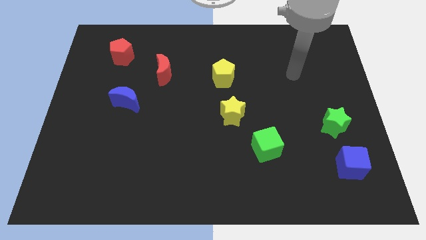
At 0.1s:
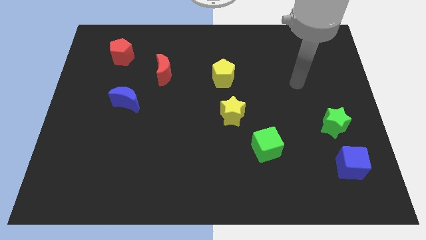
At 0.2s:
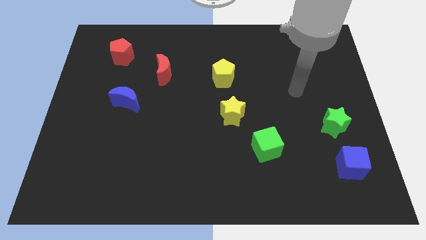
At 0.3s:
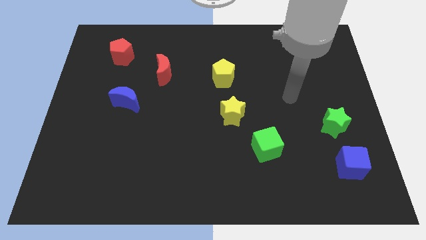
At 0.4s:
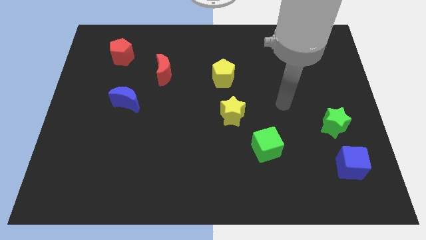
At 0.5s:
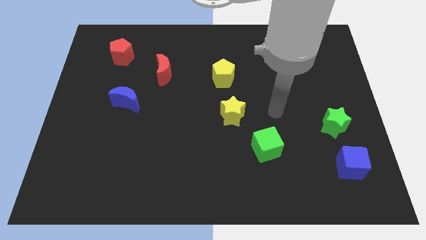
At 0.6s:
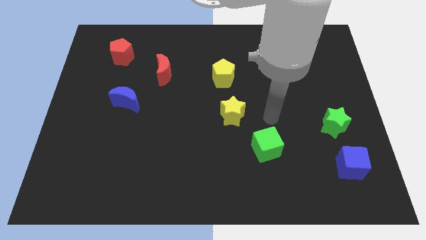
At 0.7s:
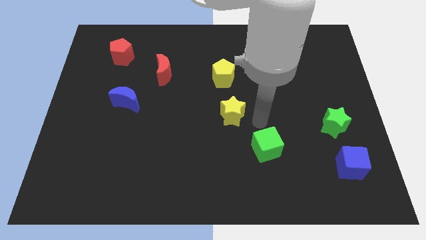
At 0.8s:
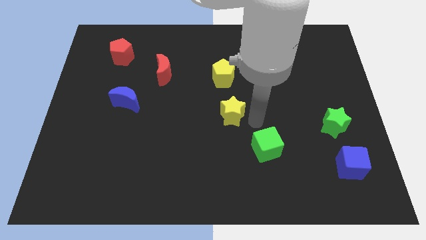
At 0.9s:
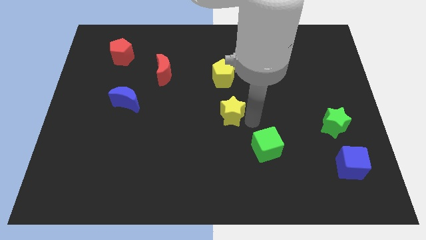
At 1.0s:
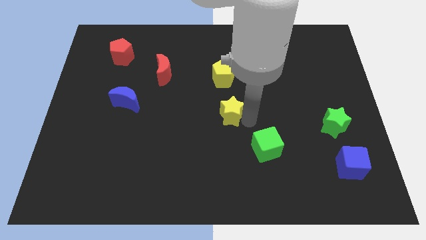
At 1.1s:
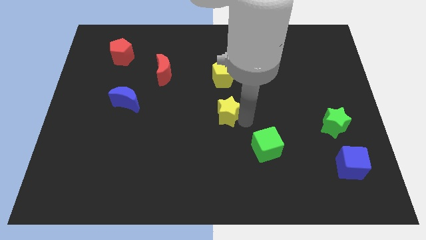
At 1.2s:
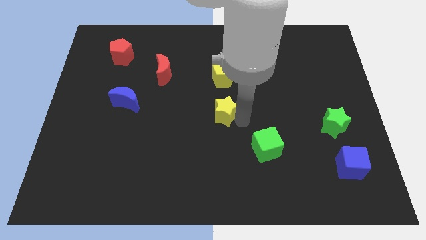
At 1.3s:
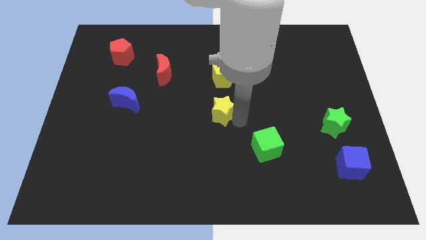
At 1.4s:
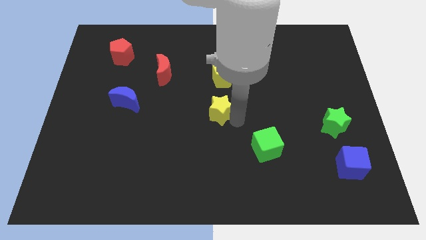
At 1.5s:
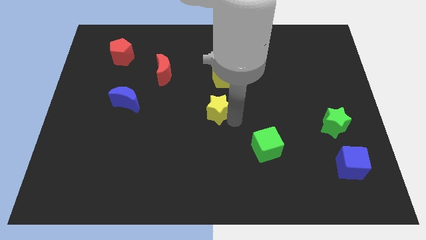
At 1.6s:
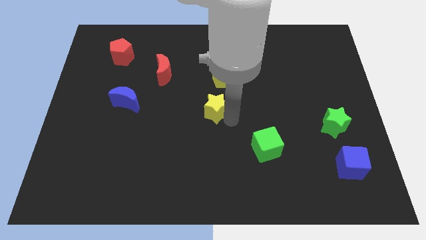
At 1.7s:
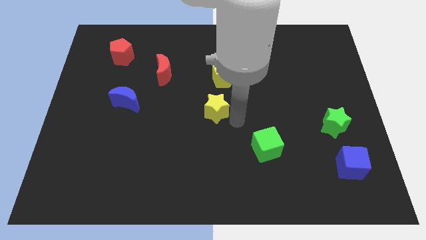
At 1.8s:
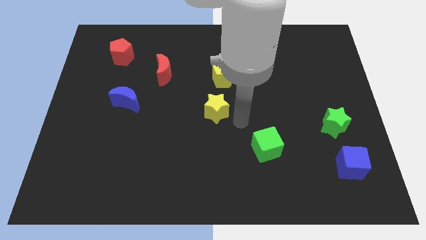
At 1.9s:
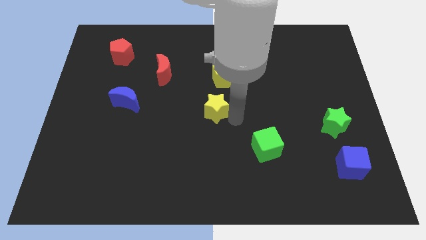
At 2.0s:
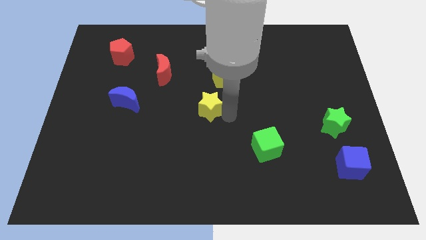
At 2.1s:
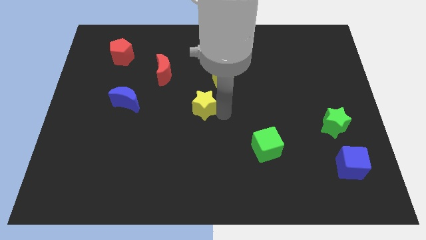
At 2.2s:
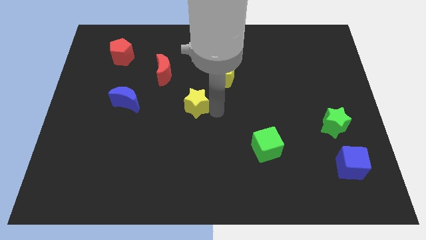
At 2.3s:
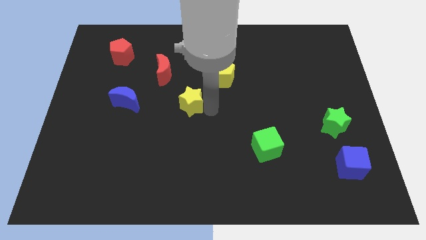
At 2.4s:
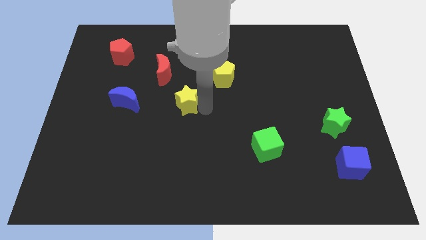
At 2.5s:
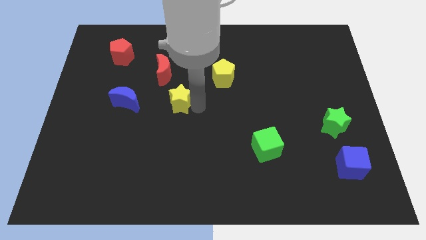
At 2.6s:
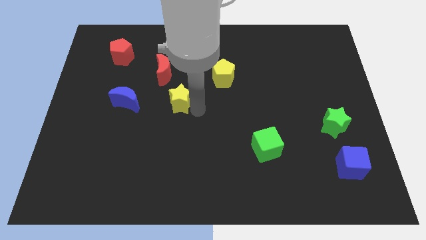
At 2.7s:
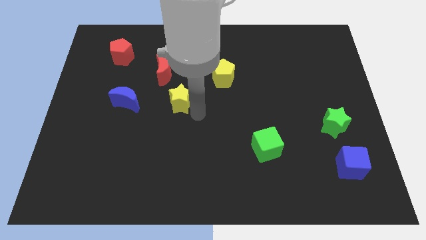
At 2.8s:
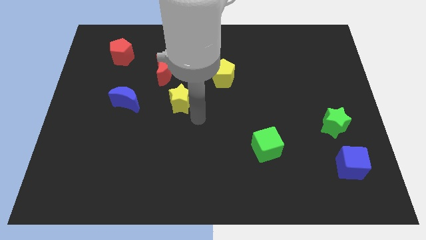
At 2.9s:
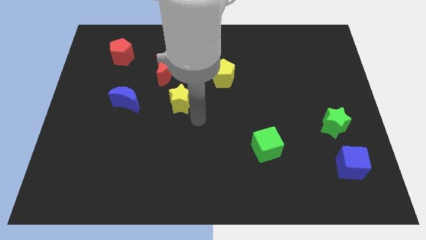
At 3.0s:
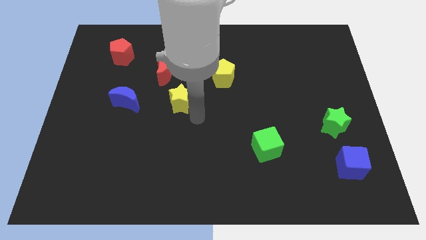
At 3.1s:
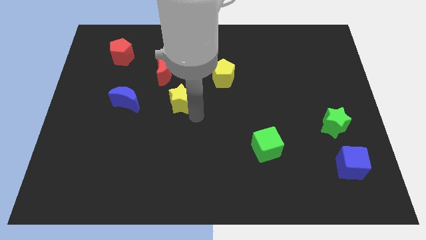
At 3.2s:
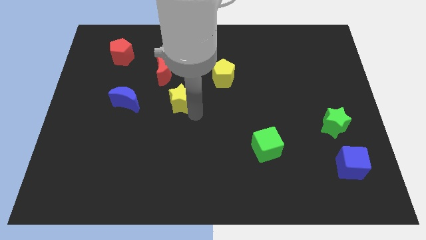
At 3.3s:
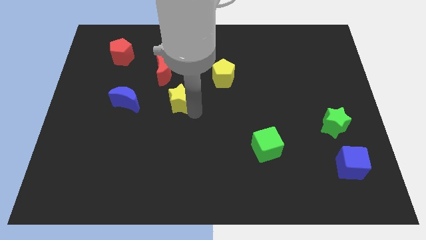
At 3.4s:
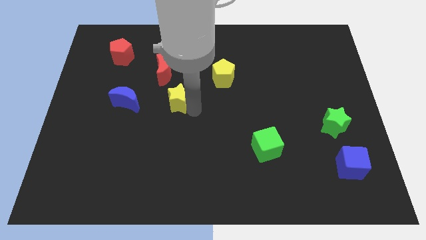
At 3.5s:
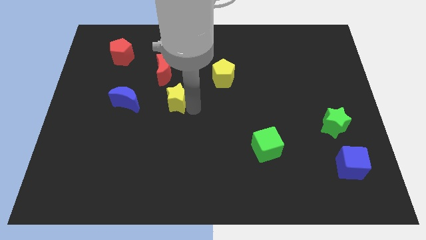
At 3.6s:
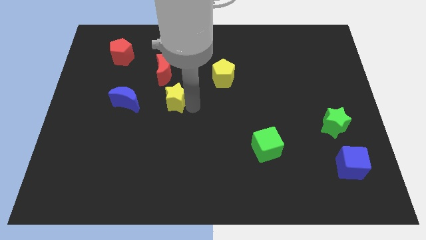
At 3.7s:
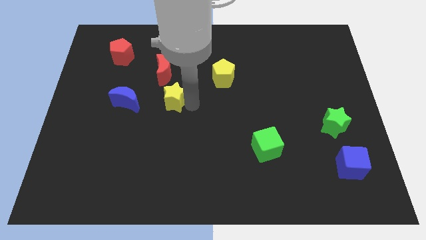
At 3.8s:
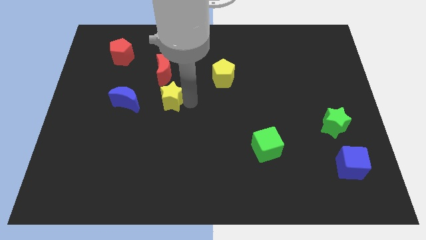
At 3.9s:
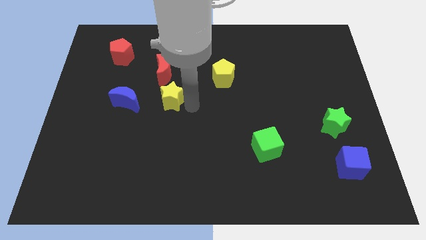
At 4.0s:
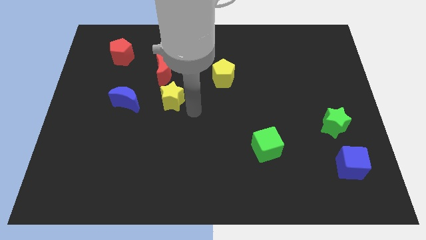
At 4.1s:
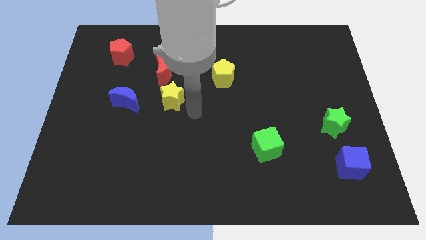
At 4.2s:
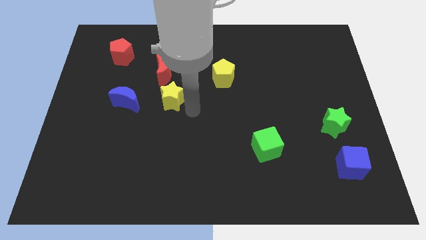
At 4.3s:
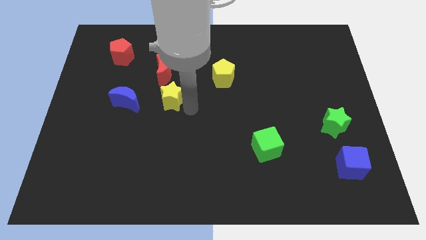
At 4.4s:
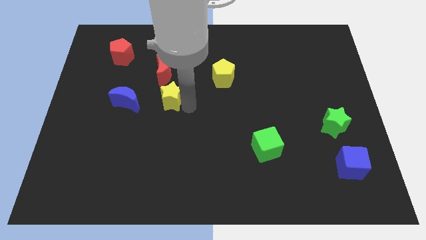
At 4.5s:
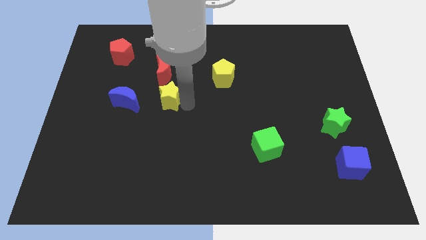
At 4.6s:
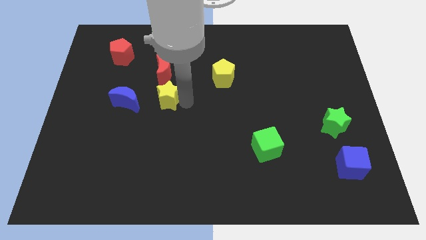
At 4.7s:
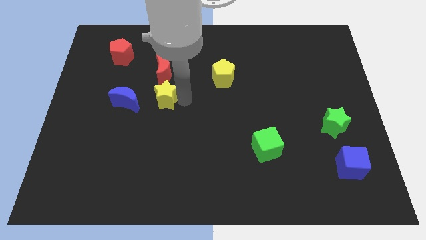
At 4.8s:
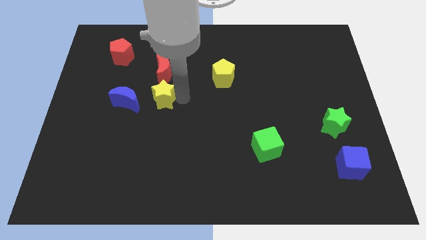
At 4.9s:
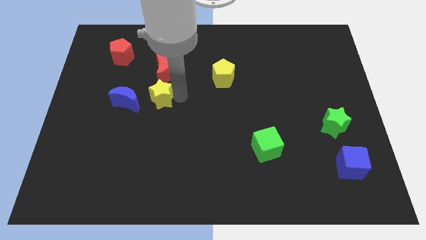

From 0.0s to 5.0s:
move the yellow star to the top right side of the blue moon

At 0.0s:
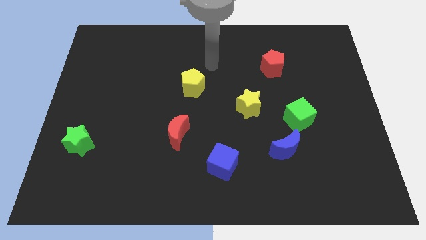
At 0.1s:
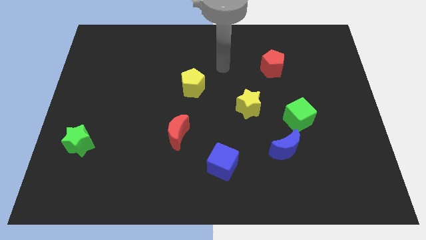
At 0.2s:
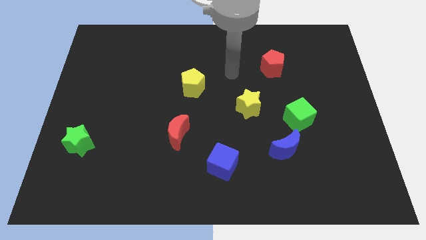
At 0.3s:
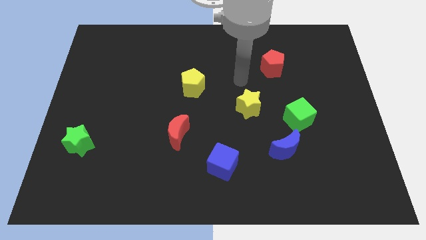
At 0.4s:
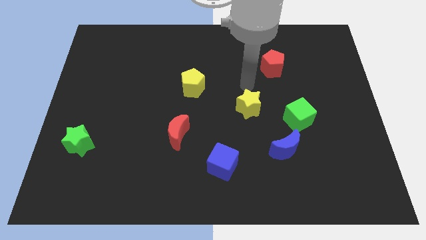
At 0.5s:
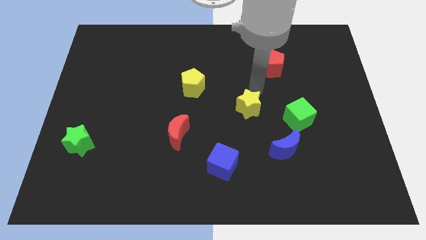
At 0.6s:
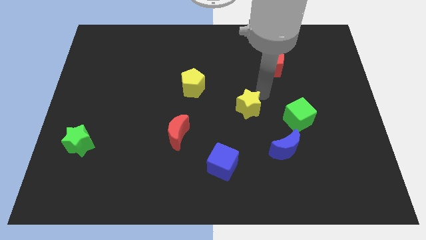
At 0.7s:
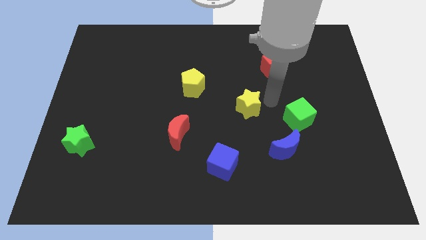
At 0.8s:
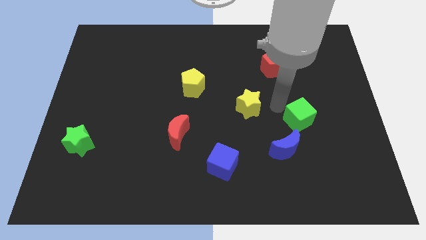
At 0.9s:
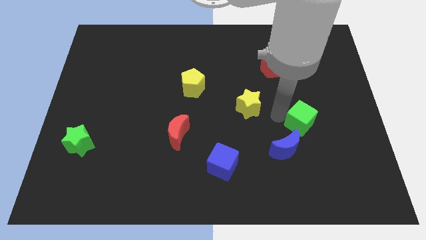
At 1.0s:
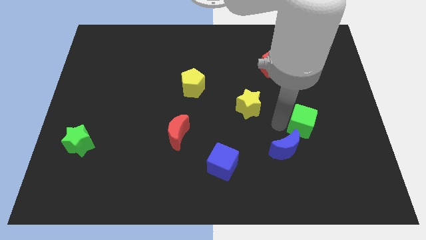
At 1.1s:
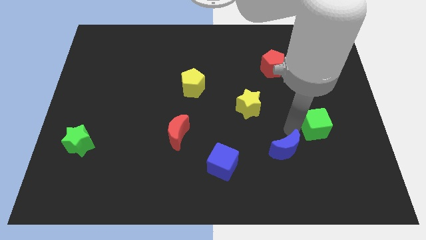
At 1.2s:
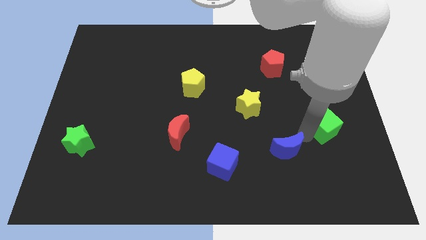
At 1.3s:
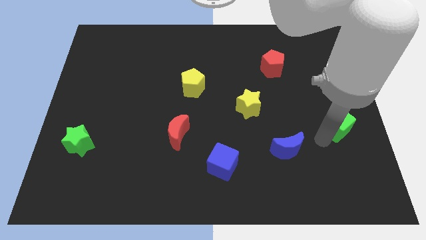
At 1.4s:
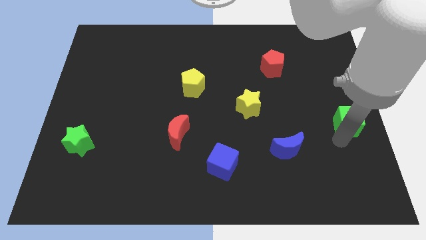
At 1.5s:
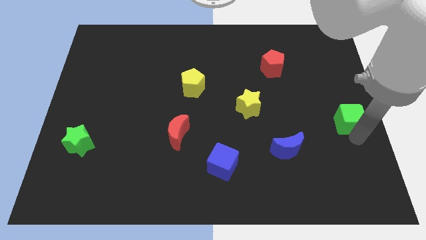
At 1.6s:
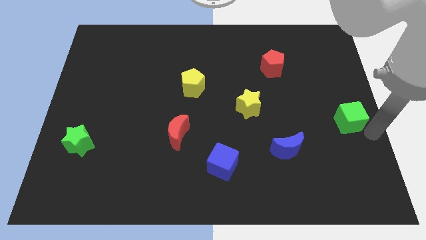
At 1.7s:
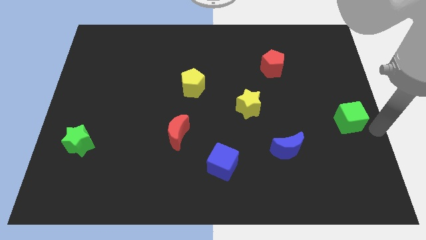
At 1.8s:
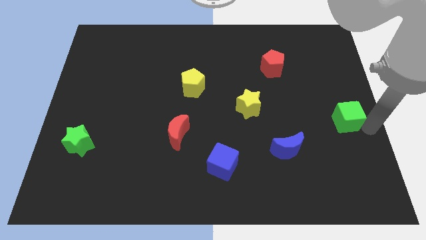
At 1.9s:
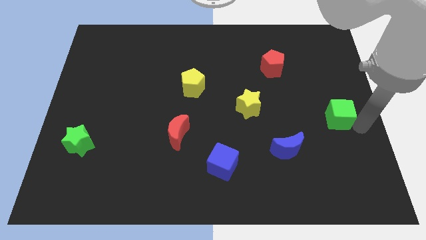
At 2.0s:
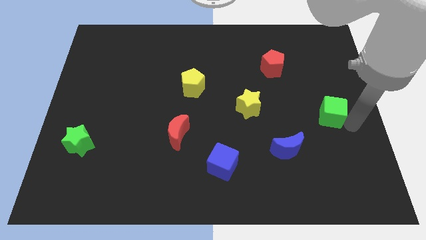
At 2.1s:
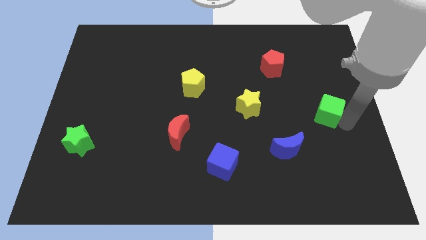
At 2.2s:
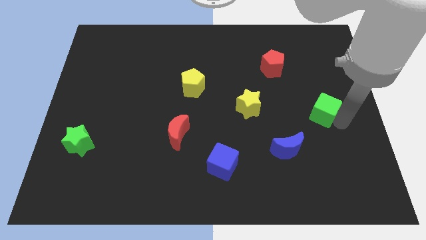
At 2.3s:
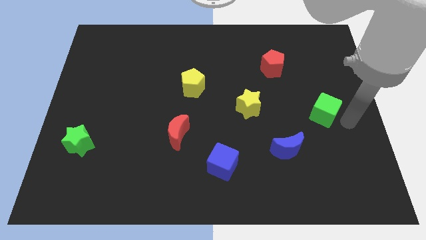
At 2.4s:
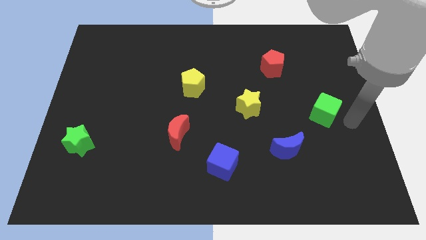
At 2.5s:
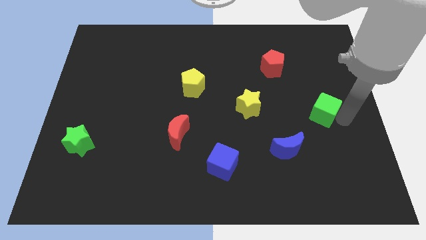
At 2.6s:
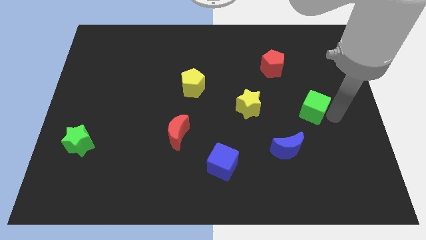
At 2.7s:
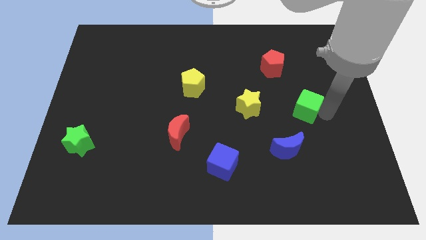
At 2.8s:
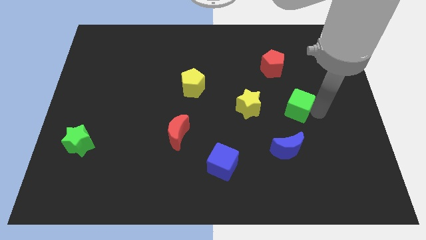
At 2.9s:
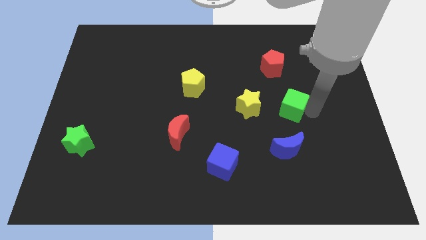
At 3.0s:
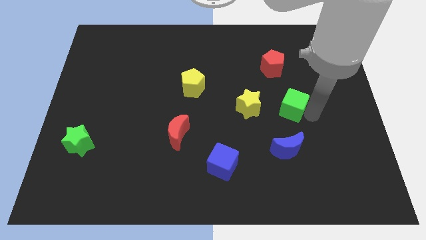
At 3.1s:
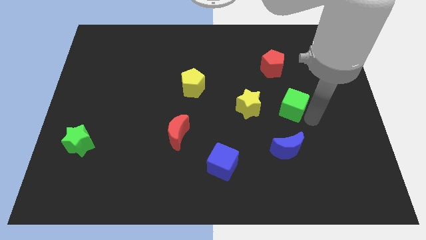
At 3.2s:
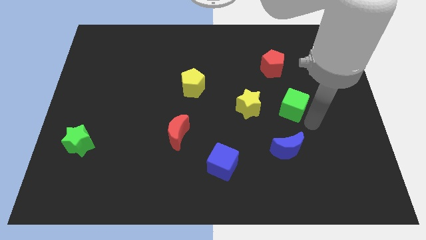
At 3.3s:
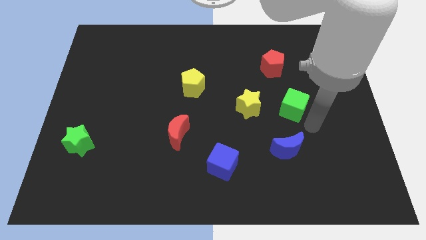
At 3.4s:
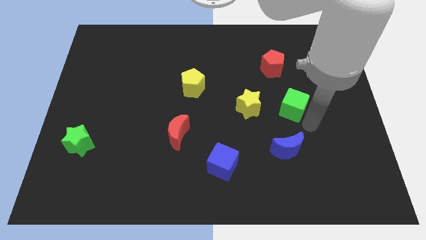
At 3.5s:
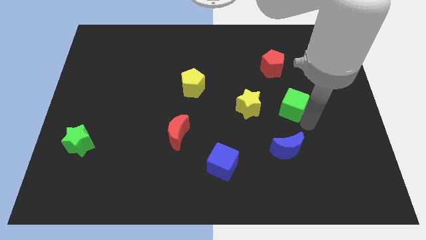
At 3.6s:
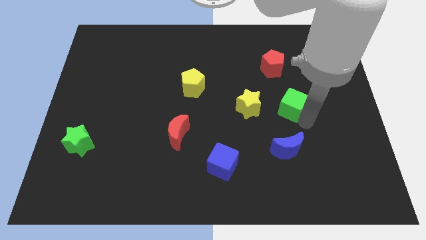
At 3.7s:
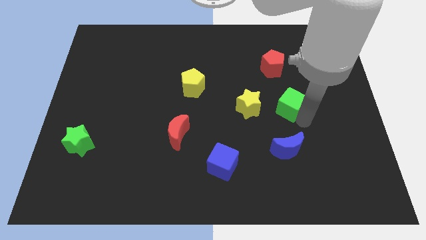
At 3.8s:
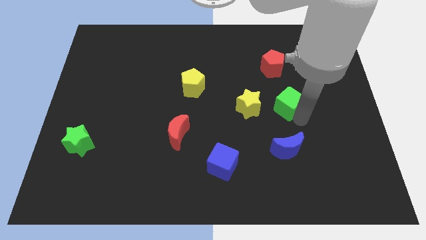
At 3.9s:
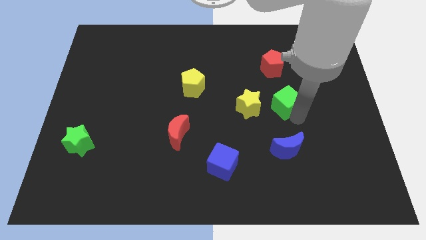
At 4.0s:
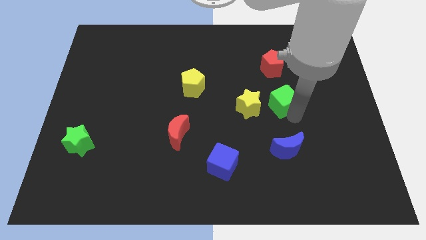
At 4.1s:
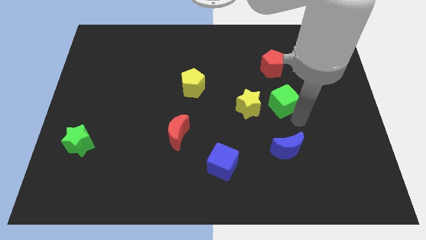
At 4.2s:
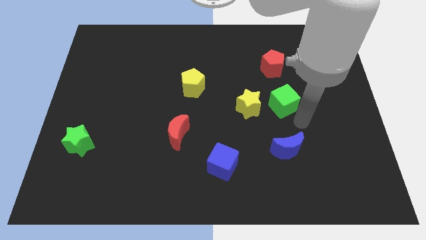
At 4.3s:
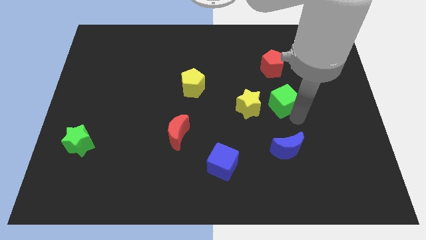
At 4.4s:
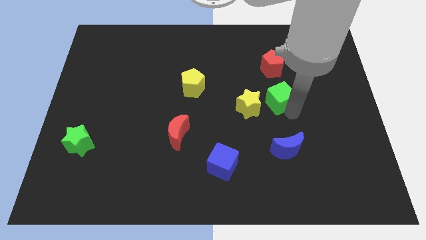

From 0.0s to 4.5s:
slide the green cube diagonally up and to the right of the yellow star
